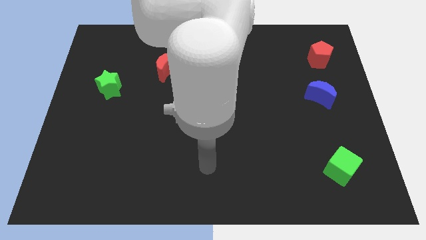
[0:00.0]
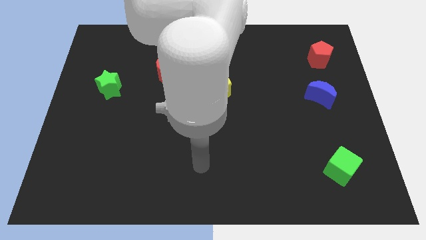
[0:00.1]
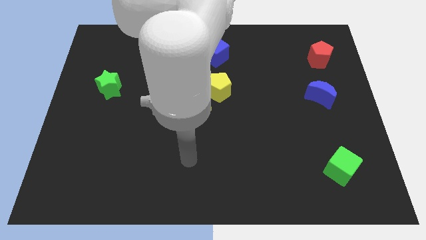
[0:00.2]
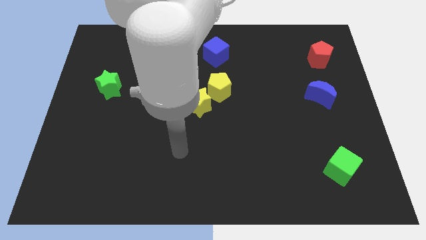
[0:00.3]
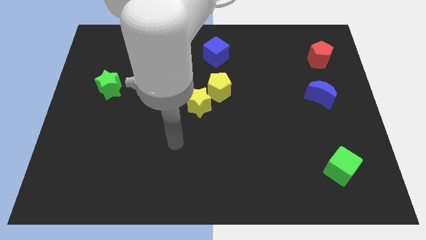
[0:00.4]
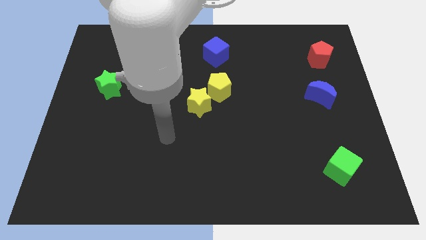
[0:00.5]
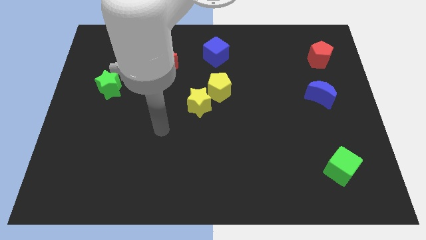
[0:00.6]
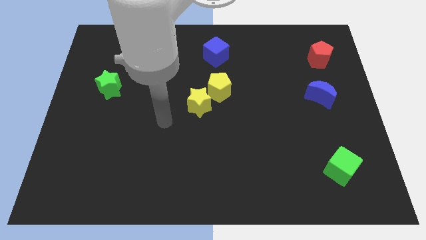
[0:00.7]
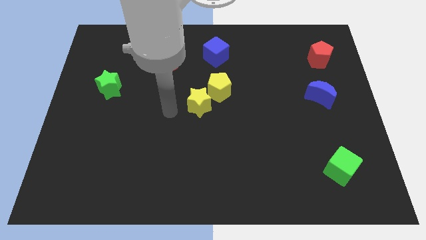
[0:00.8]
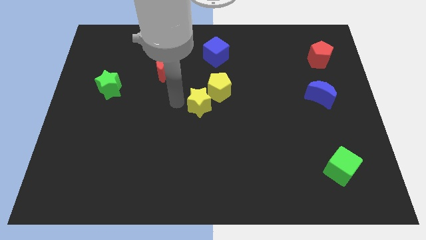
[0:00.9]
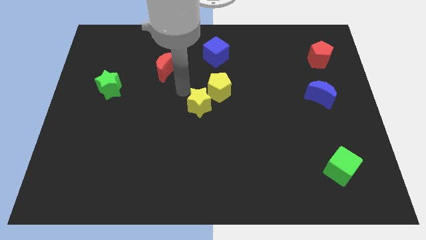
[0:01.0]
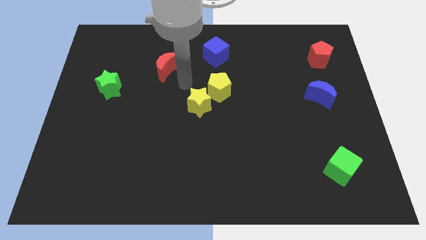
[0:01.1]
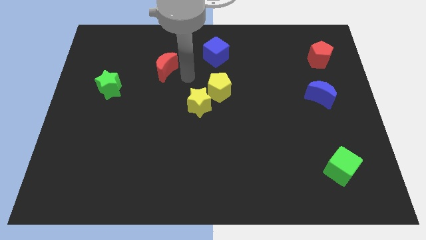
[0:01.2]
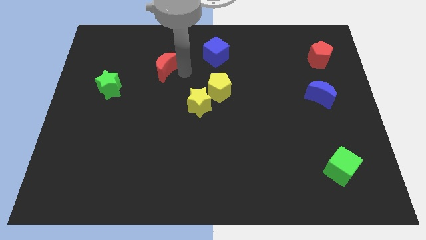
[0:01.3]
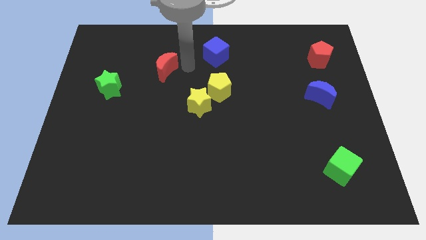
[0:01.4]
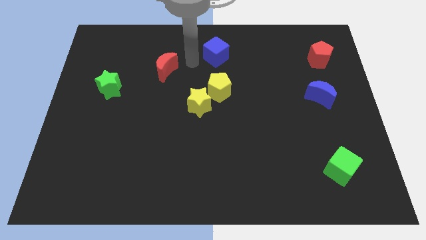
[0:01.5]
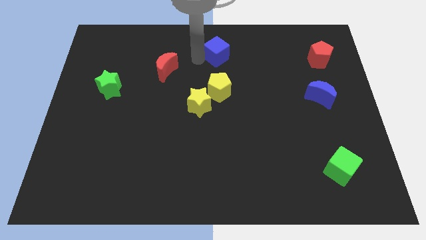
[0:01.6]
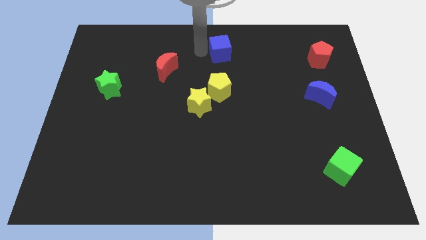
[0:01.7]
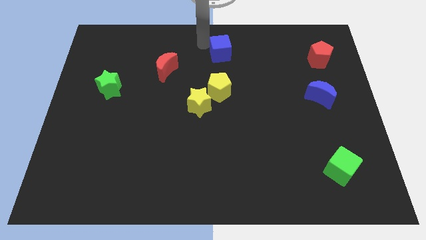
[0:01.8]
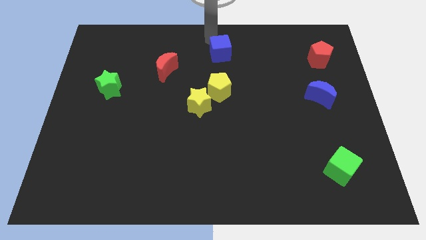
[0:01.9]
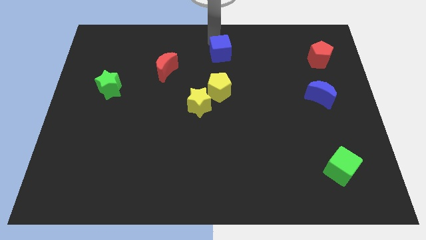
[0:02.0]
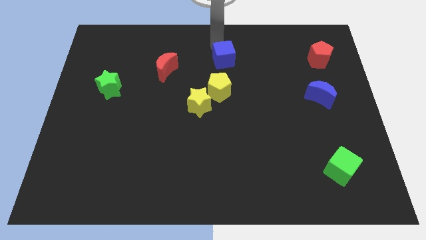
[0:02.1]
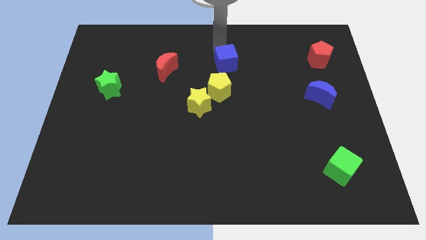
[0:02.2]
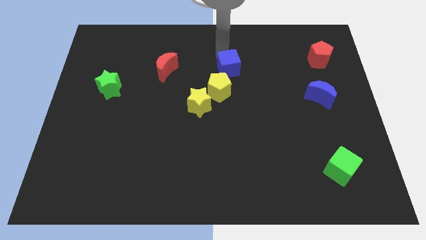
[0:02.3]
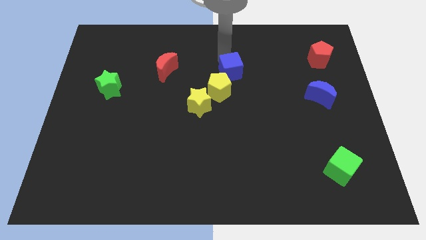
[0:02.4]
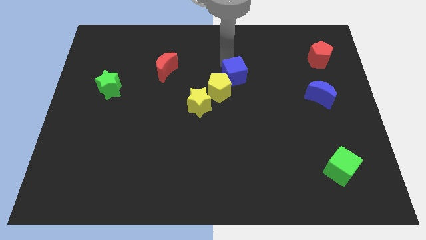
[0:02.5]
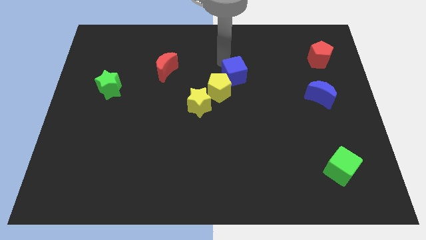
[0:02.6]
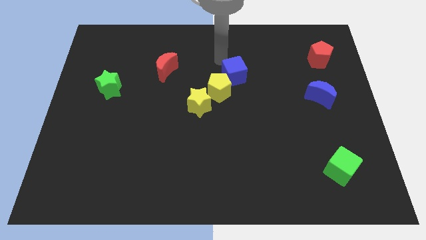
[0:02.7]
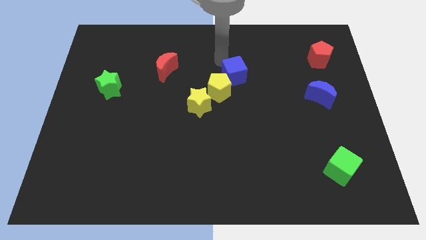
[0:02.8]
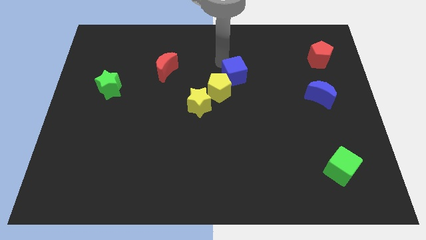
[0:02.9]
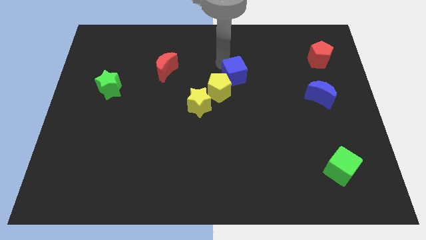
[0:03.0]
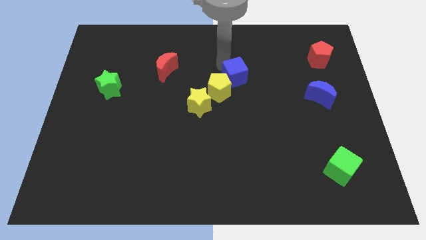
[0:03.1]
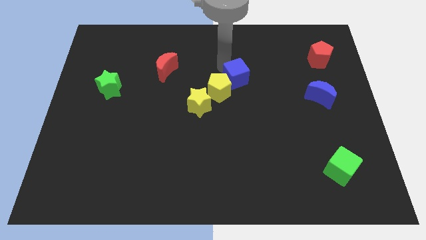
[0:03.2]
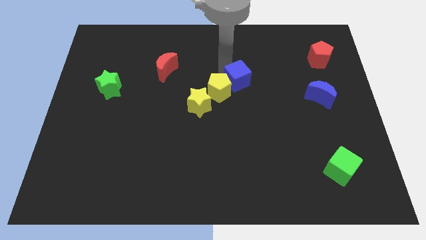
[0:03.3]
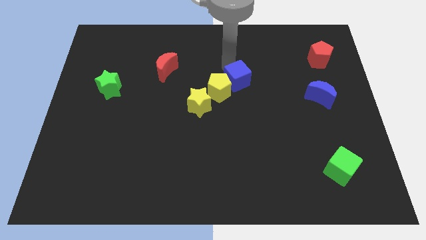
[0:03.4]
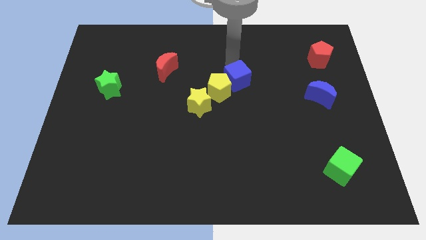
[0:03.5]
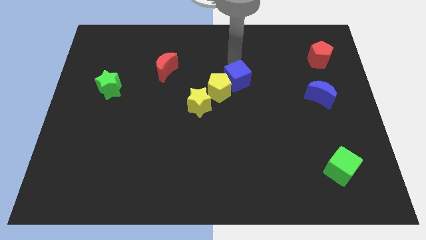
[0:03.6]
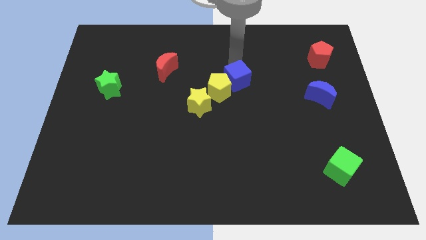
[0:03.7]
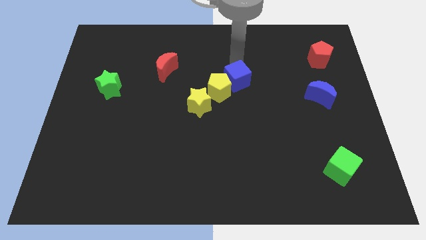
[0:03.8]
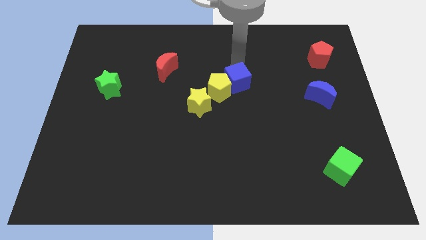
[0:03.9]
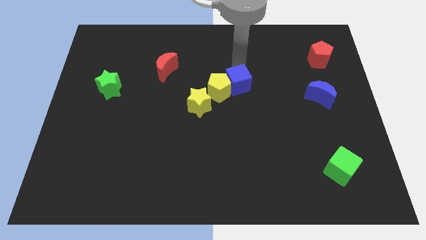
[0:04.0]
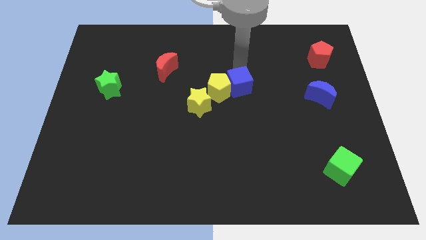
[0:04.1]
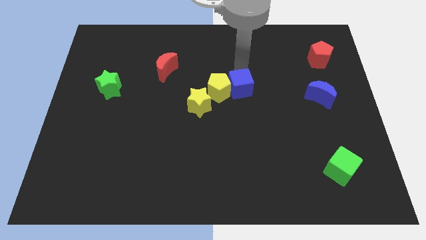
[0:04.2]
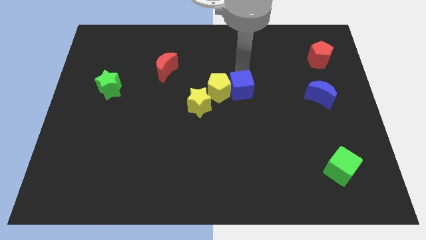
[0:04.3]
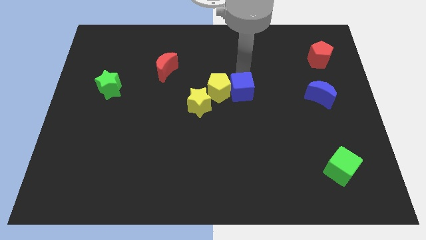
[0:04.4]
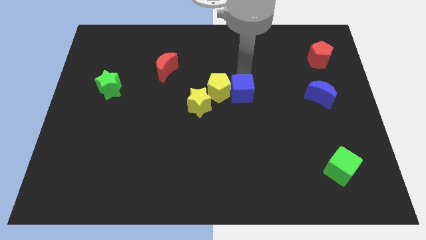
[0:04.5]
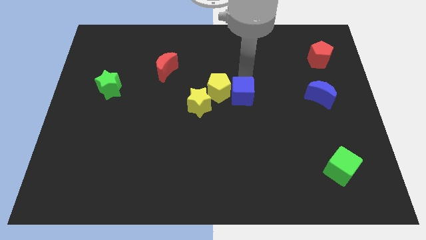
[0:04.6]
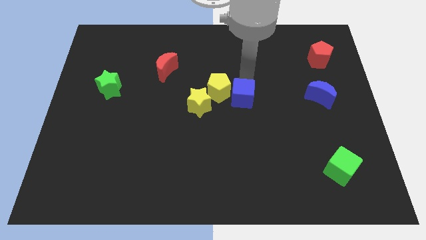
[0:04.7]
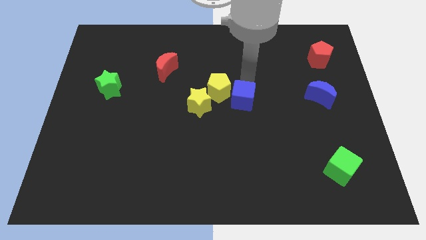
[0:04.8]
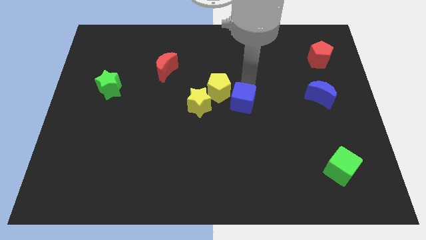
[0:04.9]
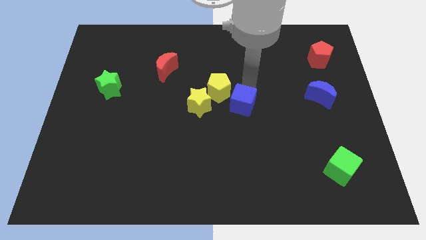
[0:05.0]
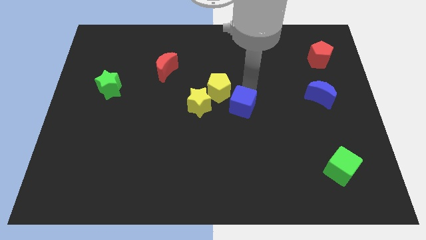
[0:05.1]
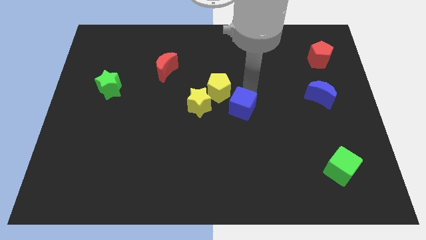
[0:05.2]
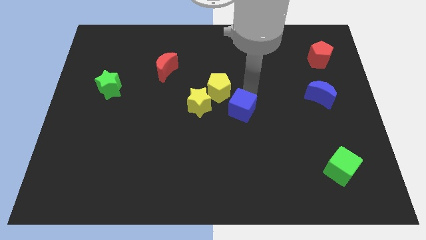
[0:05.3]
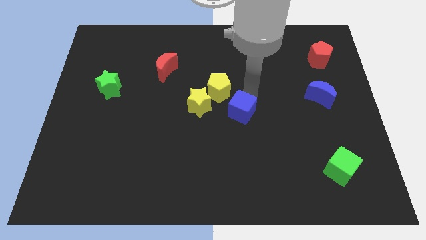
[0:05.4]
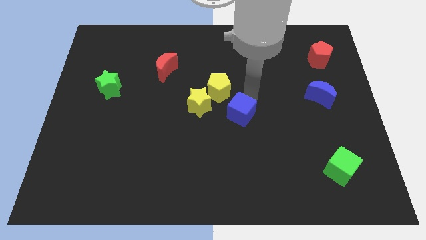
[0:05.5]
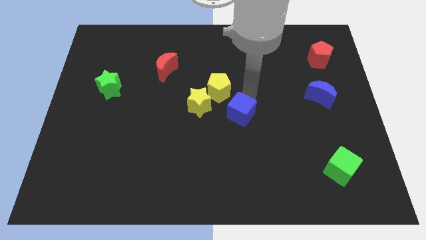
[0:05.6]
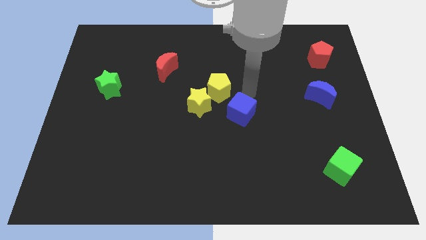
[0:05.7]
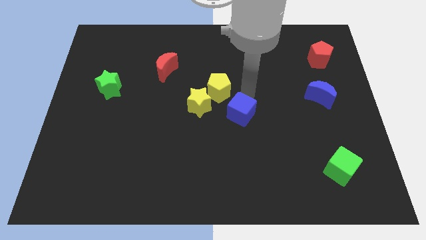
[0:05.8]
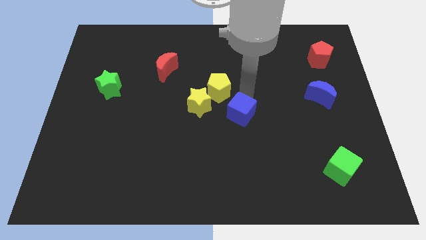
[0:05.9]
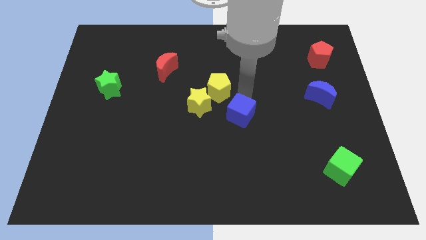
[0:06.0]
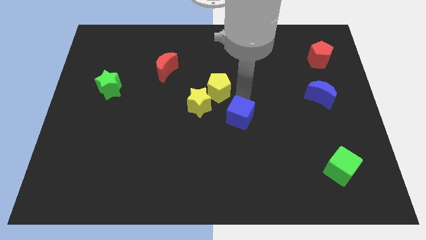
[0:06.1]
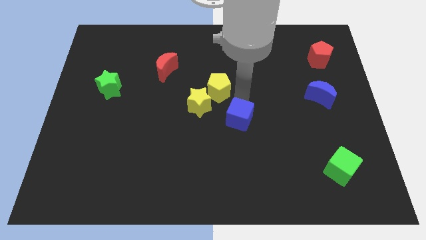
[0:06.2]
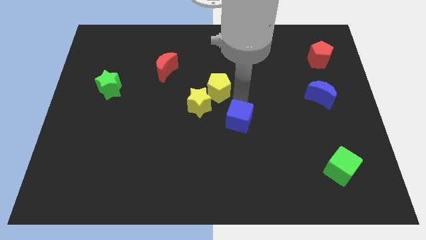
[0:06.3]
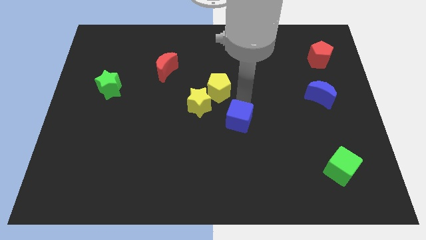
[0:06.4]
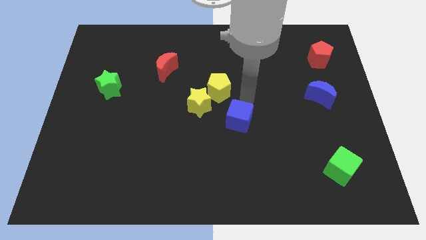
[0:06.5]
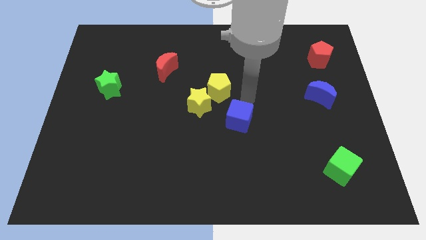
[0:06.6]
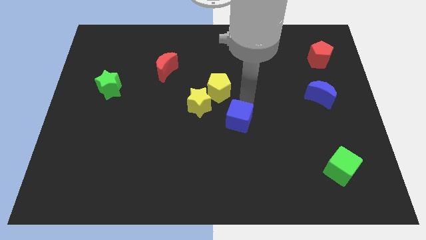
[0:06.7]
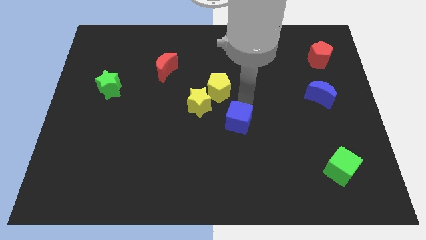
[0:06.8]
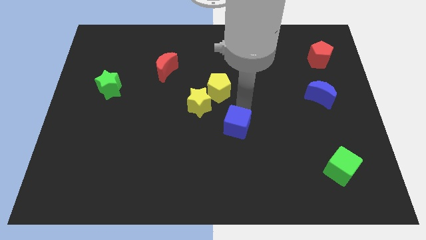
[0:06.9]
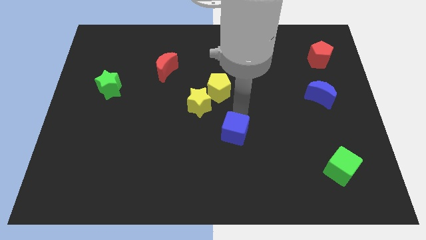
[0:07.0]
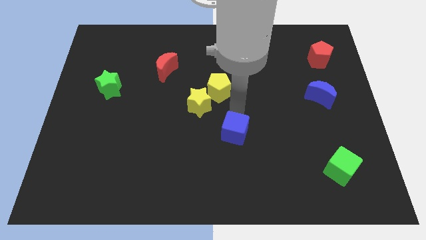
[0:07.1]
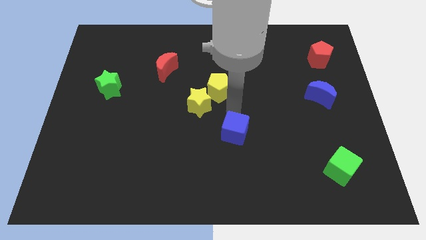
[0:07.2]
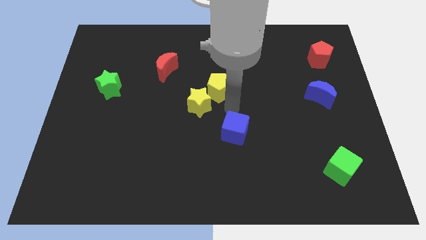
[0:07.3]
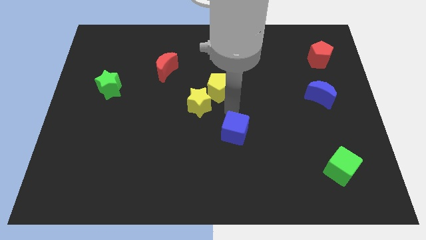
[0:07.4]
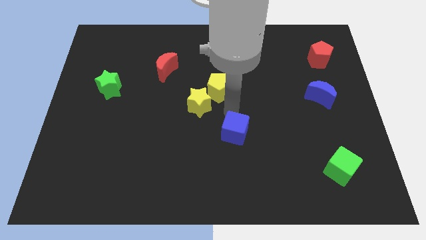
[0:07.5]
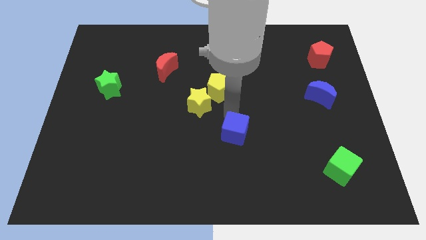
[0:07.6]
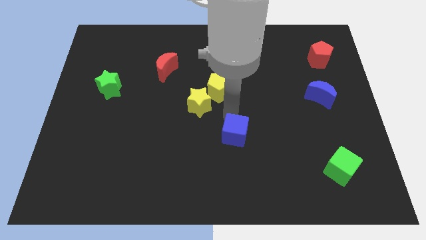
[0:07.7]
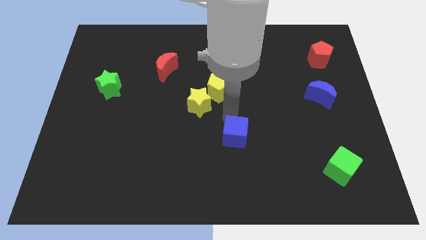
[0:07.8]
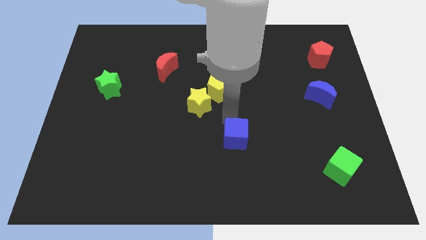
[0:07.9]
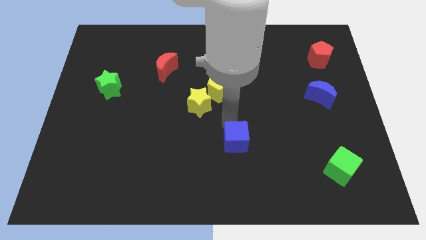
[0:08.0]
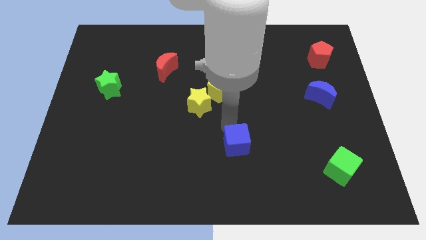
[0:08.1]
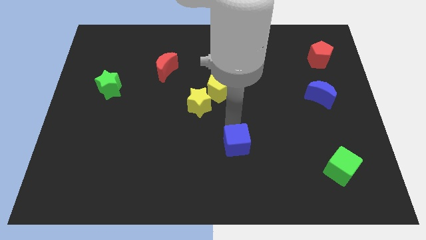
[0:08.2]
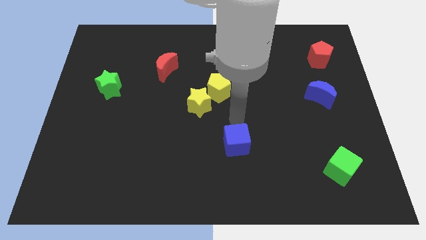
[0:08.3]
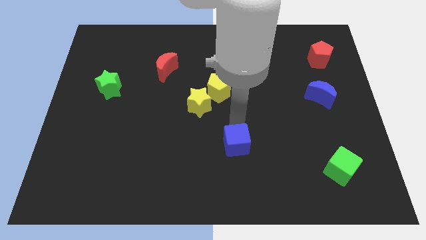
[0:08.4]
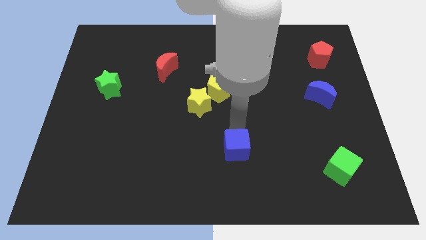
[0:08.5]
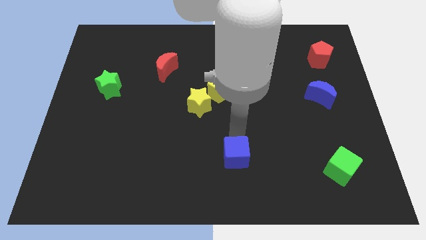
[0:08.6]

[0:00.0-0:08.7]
put the blue cube to the bottom side
